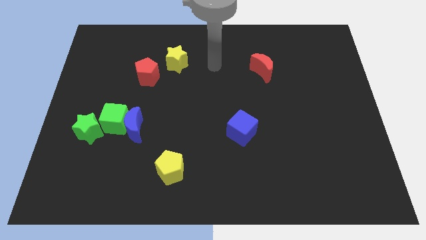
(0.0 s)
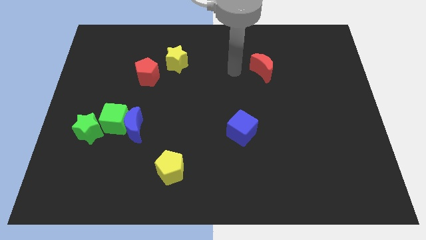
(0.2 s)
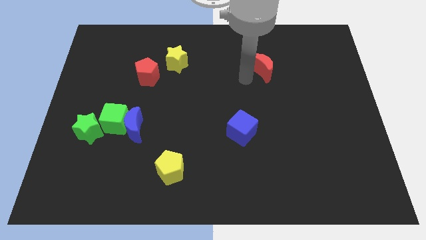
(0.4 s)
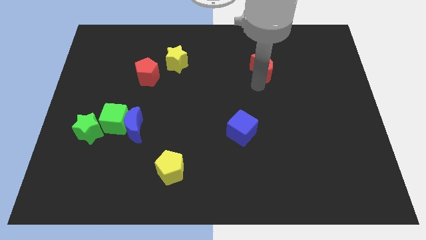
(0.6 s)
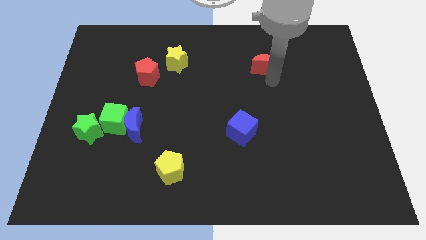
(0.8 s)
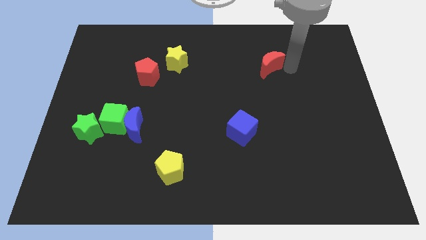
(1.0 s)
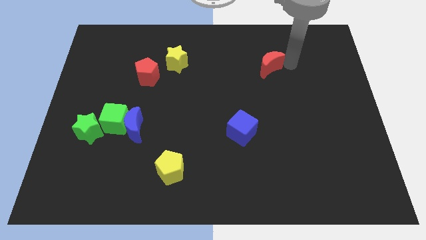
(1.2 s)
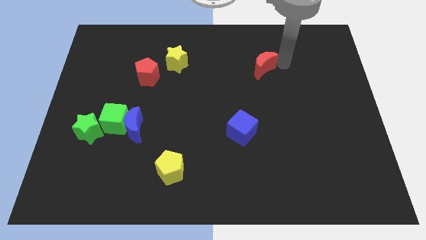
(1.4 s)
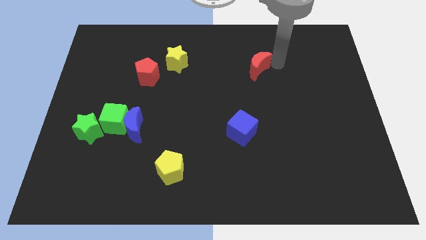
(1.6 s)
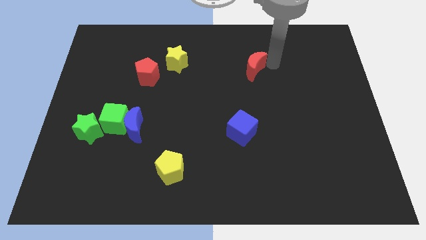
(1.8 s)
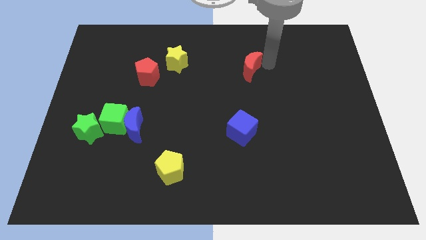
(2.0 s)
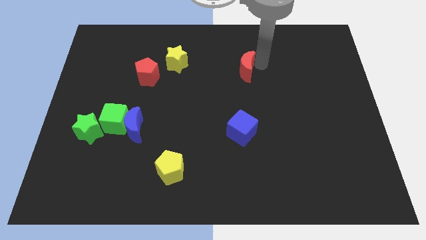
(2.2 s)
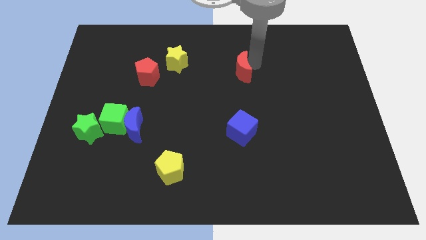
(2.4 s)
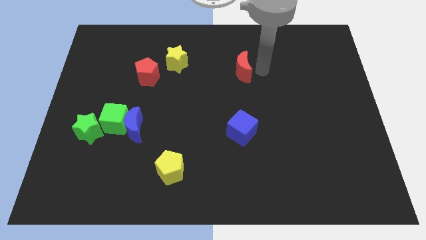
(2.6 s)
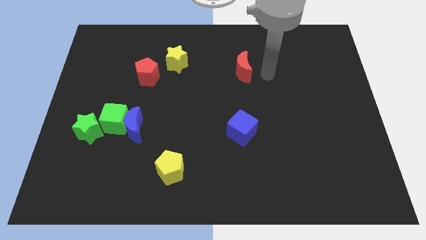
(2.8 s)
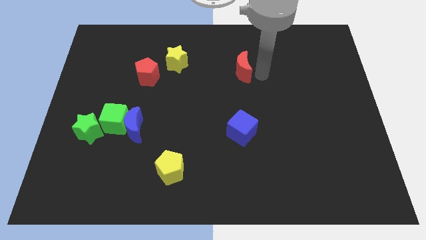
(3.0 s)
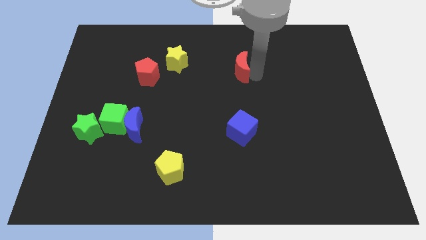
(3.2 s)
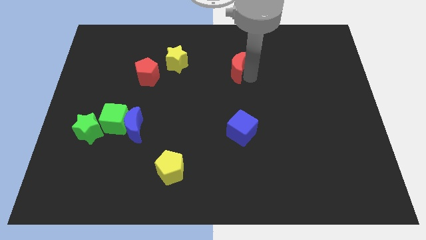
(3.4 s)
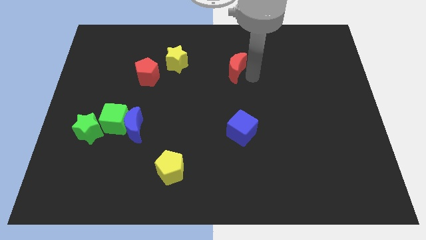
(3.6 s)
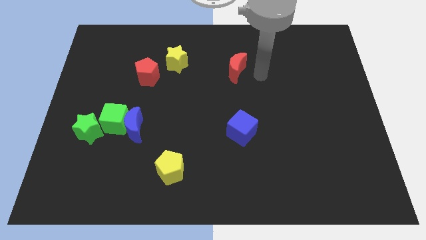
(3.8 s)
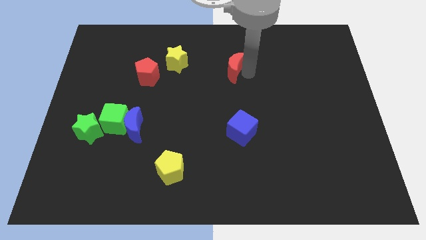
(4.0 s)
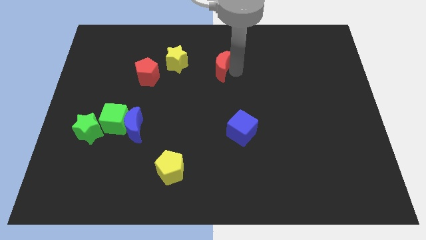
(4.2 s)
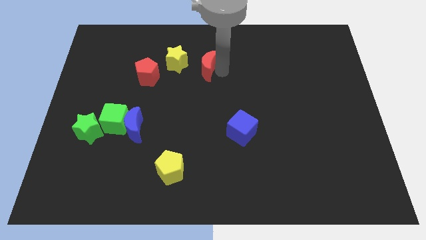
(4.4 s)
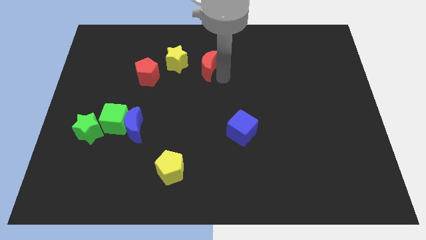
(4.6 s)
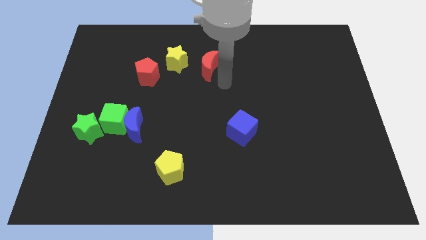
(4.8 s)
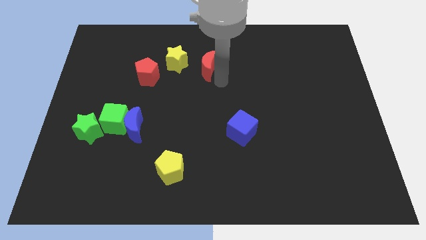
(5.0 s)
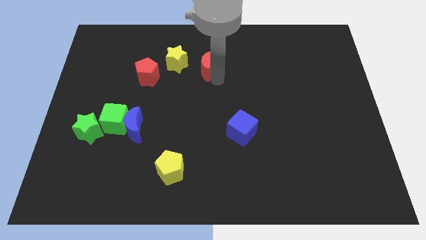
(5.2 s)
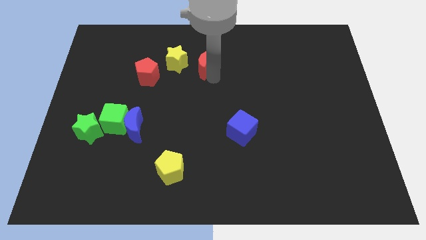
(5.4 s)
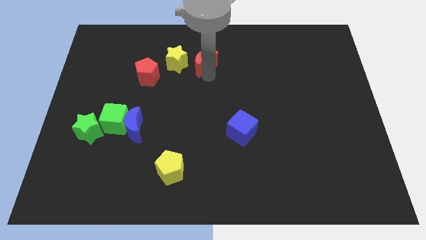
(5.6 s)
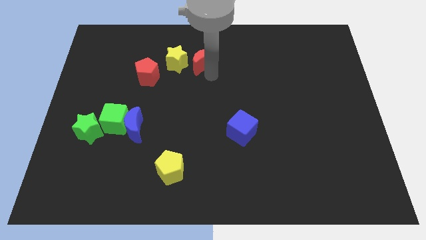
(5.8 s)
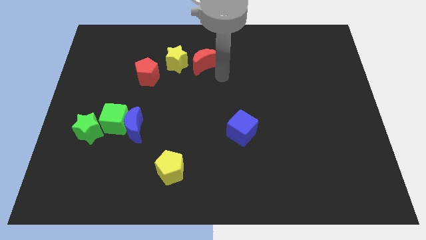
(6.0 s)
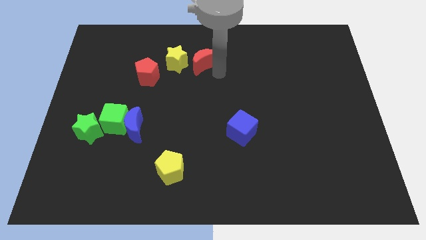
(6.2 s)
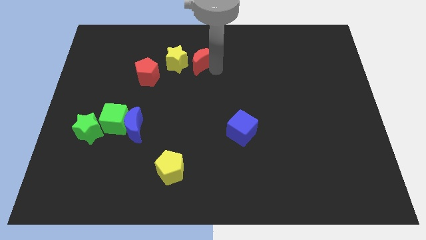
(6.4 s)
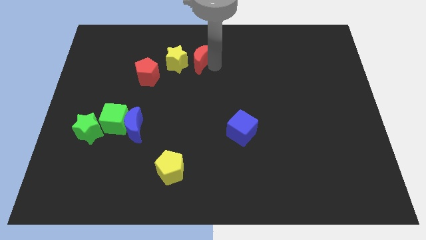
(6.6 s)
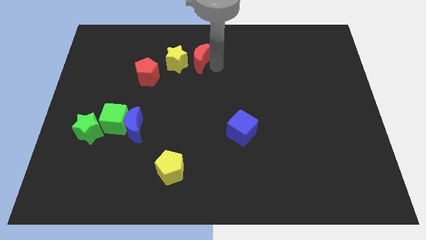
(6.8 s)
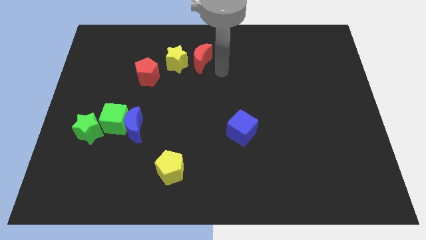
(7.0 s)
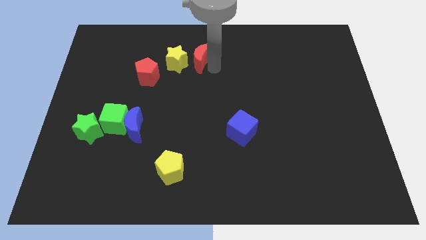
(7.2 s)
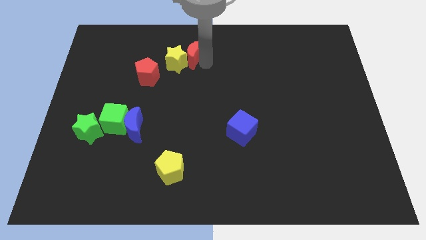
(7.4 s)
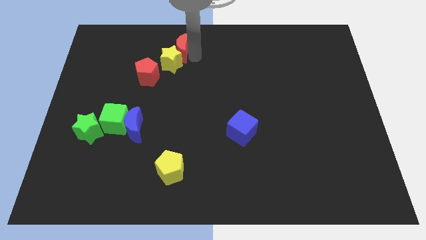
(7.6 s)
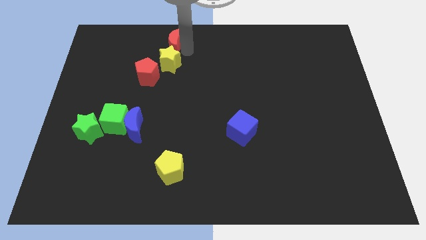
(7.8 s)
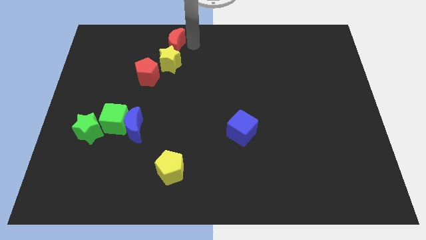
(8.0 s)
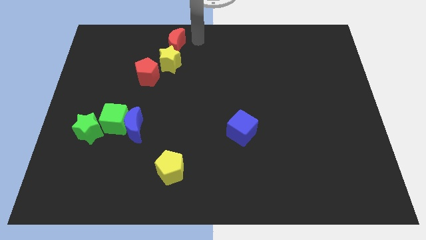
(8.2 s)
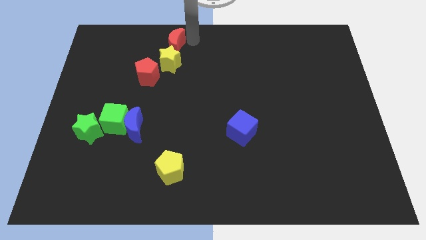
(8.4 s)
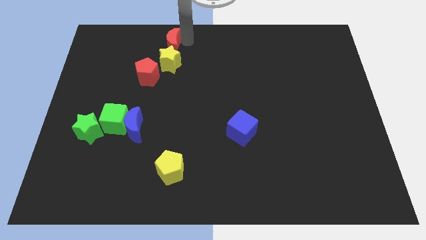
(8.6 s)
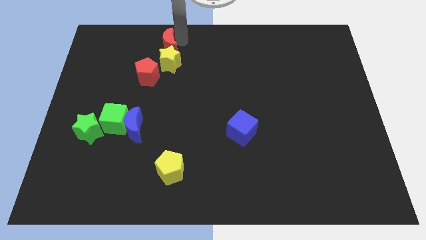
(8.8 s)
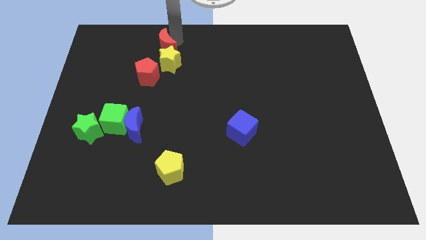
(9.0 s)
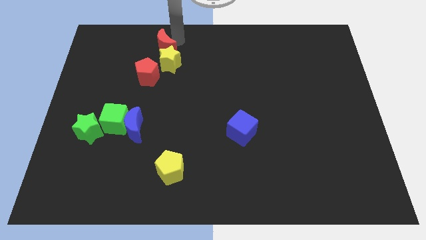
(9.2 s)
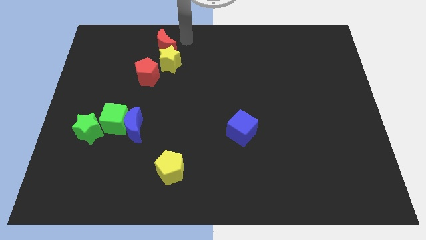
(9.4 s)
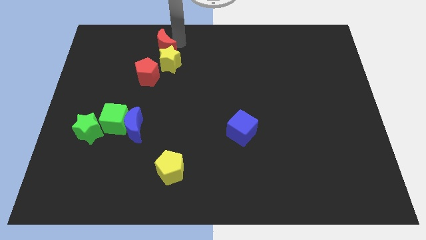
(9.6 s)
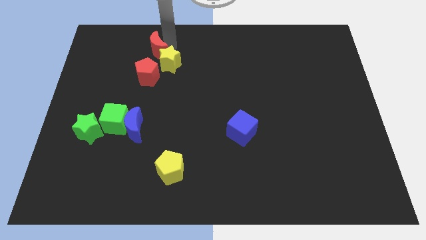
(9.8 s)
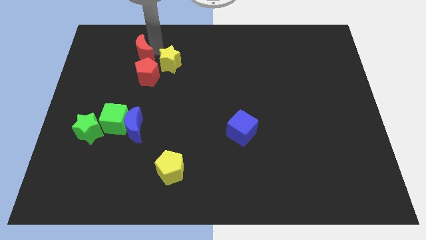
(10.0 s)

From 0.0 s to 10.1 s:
move the red moon to the top left of the red pentagon

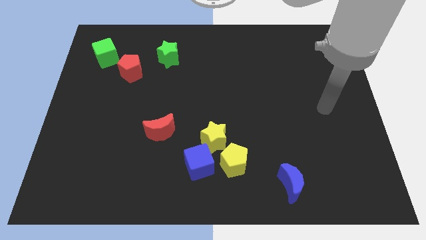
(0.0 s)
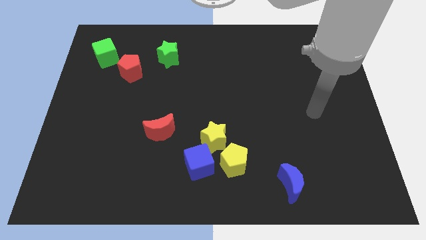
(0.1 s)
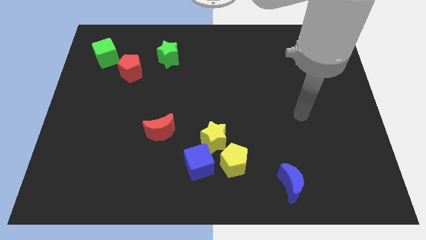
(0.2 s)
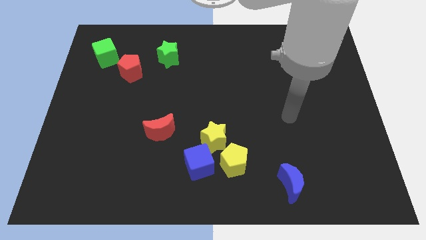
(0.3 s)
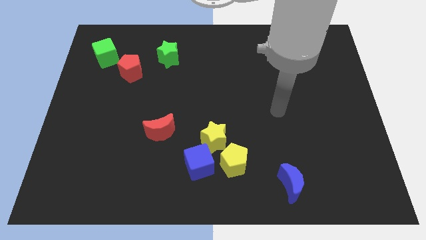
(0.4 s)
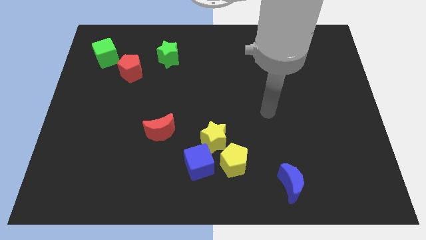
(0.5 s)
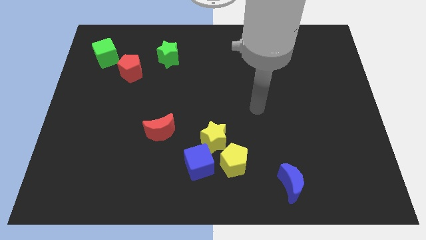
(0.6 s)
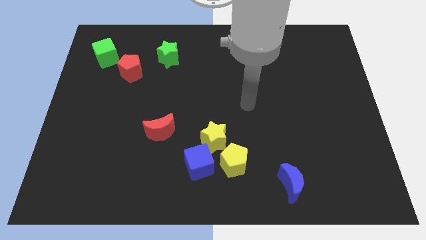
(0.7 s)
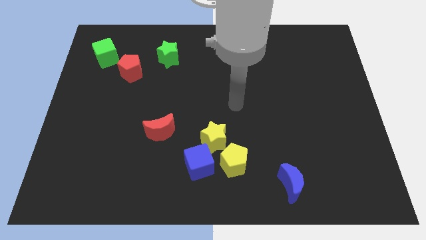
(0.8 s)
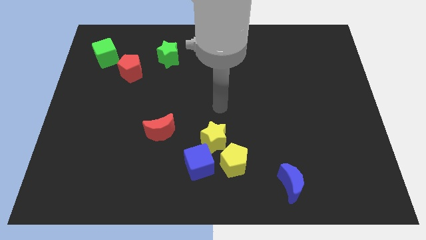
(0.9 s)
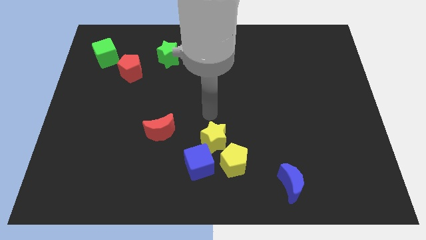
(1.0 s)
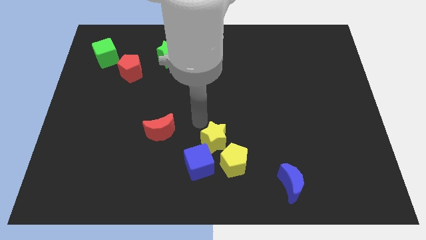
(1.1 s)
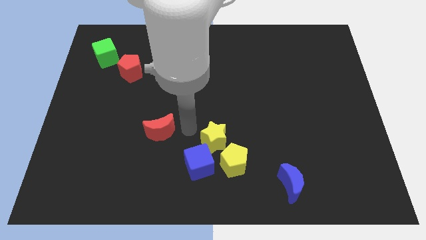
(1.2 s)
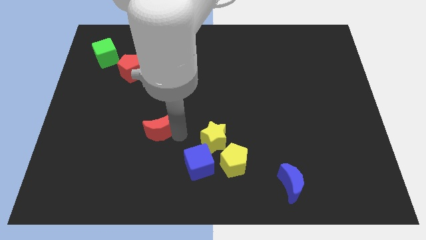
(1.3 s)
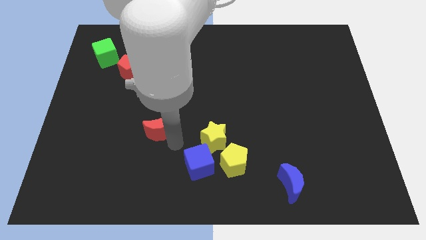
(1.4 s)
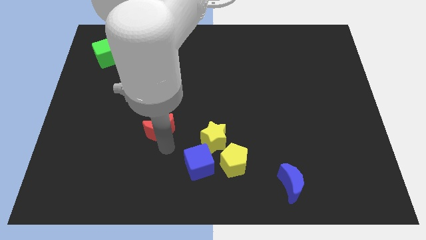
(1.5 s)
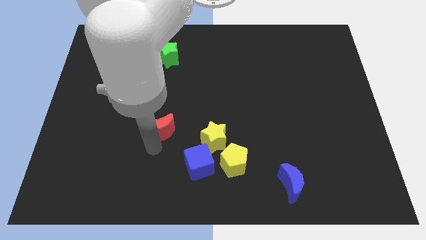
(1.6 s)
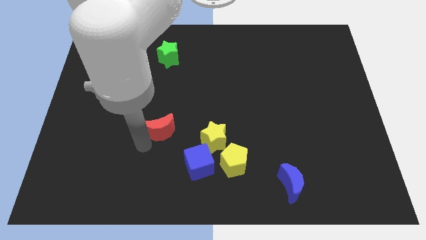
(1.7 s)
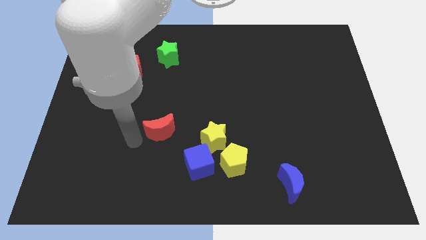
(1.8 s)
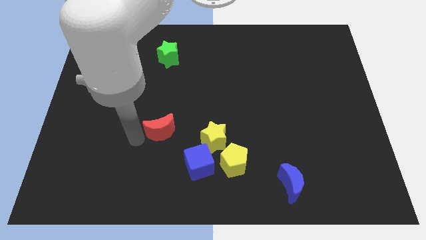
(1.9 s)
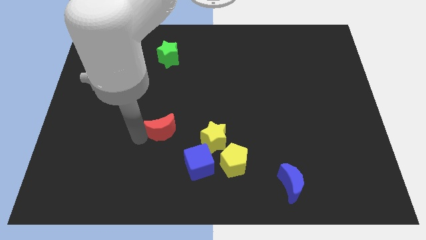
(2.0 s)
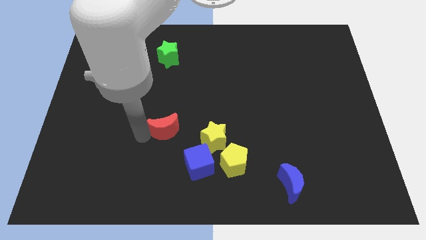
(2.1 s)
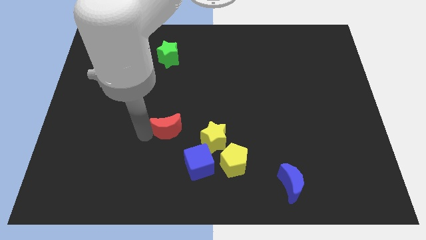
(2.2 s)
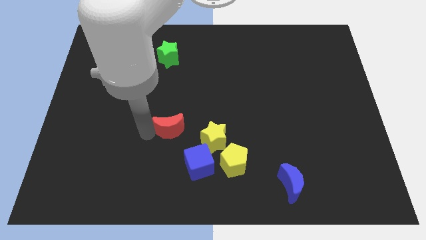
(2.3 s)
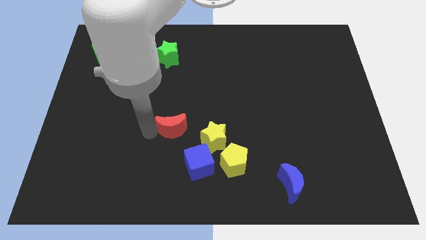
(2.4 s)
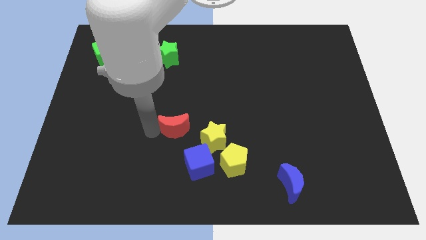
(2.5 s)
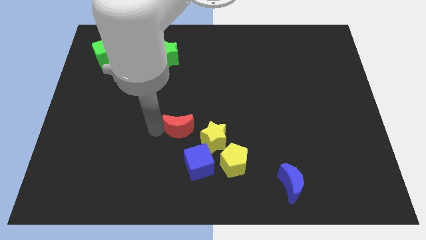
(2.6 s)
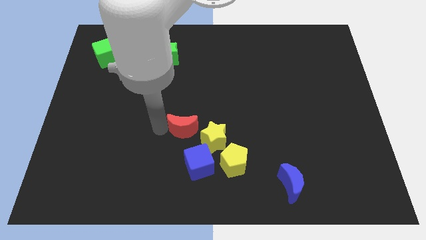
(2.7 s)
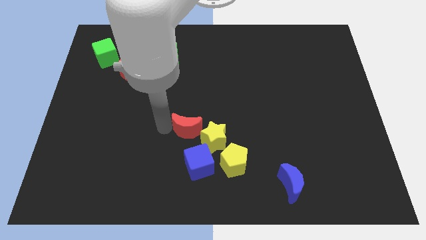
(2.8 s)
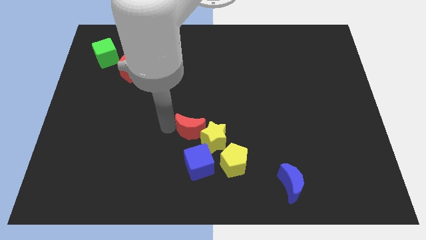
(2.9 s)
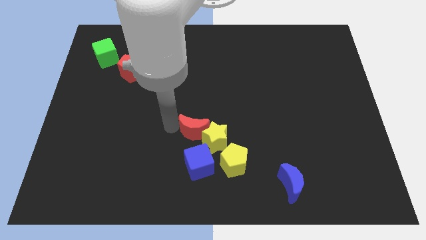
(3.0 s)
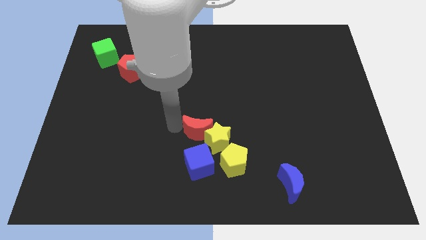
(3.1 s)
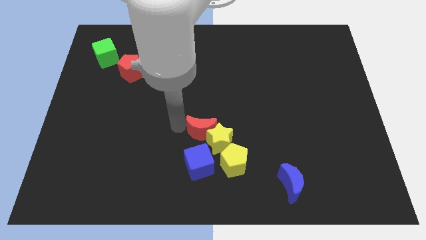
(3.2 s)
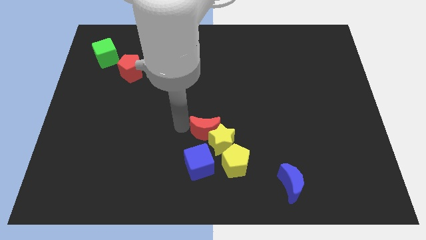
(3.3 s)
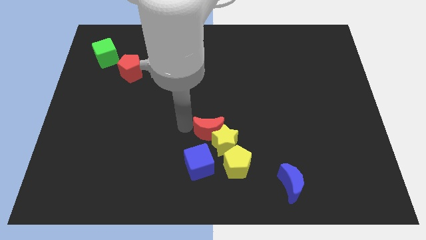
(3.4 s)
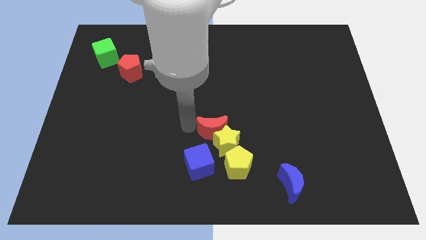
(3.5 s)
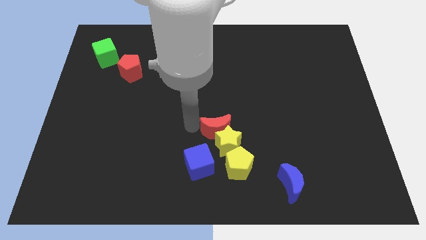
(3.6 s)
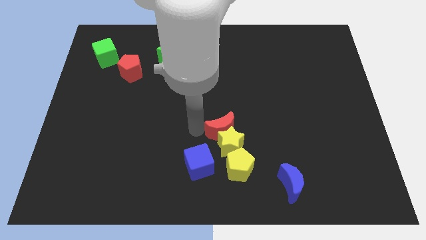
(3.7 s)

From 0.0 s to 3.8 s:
move the red moon to the top right side of the yellow star
